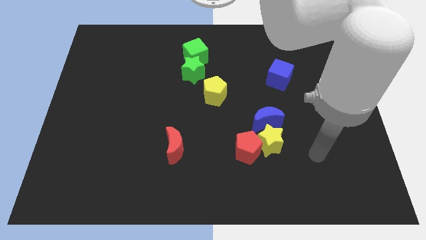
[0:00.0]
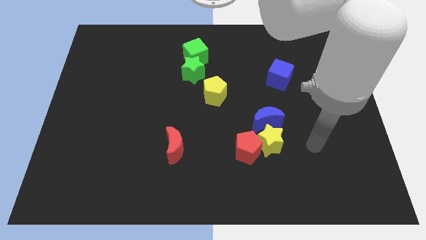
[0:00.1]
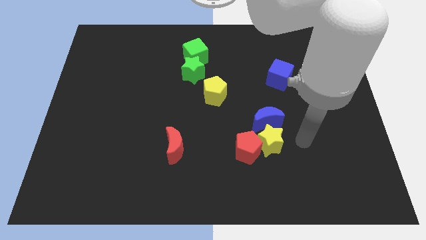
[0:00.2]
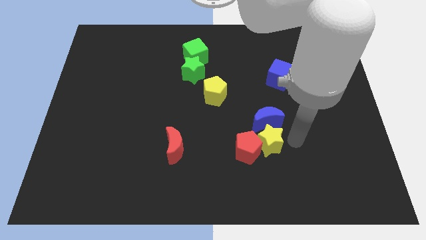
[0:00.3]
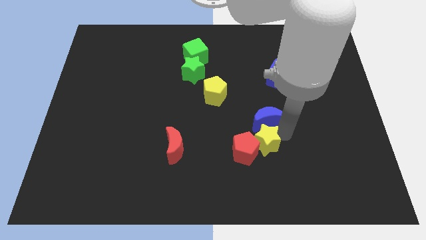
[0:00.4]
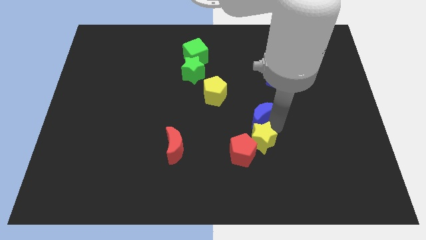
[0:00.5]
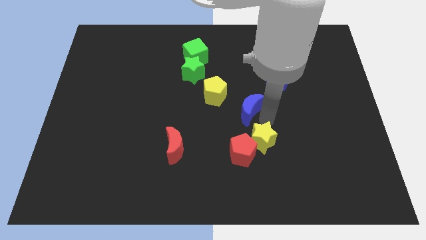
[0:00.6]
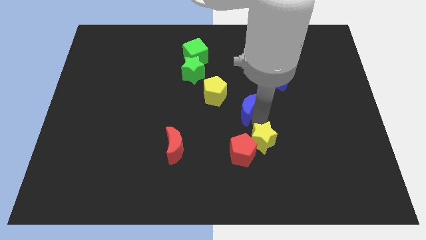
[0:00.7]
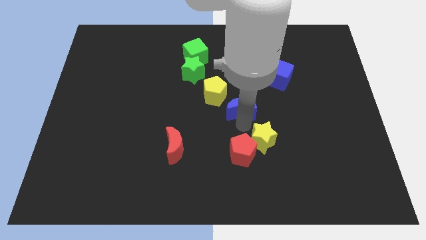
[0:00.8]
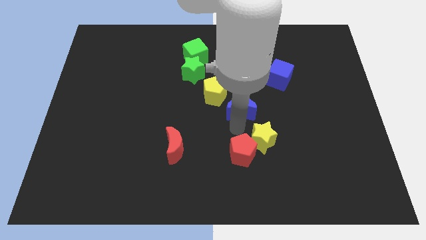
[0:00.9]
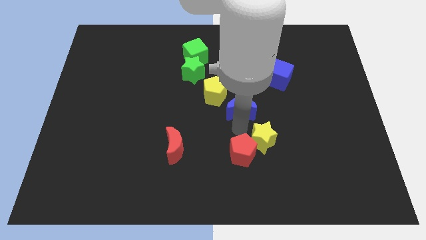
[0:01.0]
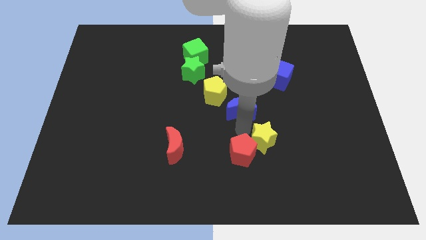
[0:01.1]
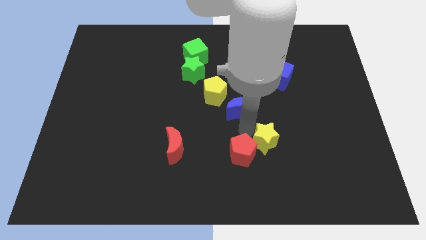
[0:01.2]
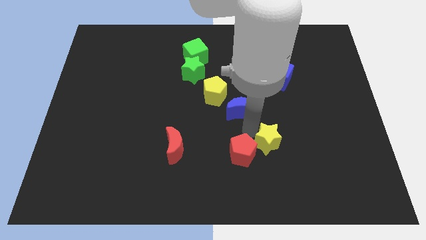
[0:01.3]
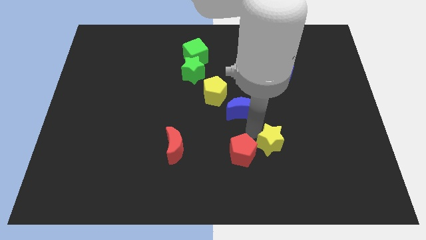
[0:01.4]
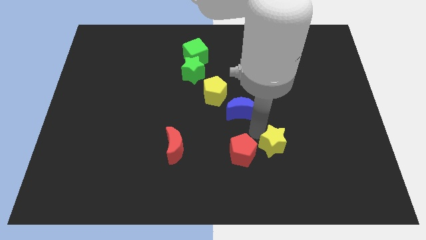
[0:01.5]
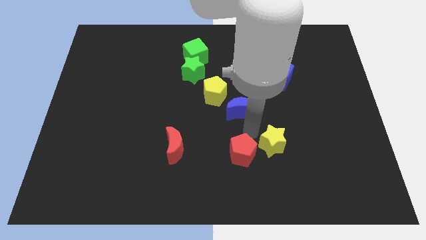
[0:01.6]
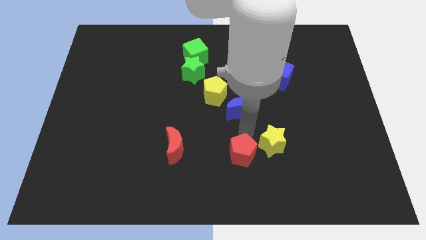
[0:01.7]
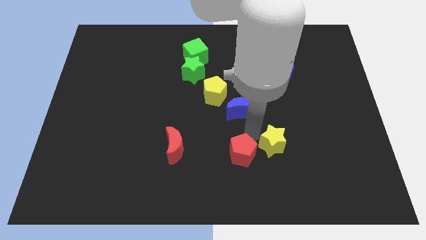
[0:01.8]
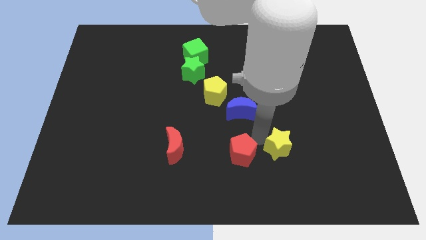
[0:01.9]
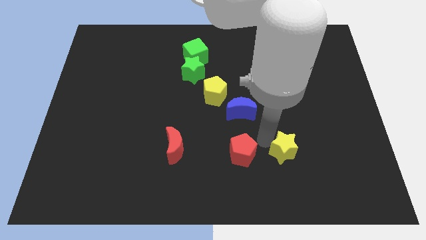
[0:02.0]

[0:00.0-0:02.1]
move the yellow star away from the red pentagon and blue moon

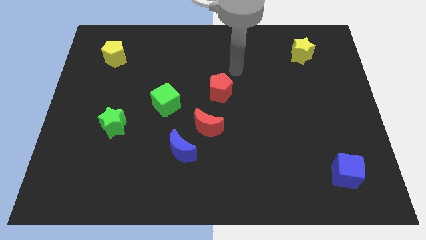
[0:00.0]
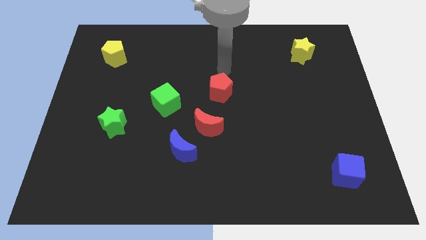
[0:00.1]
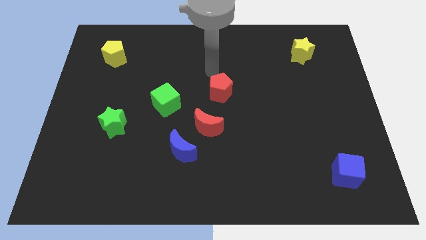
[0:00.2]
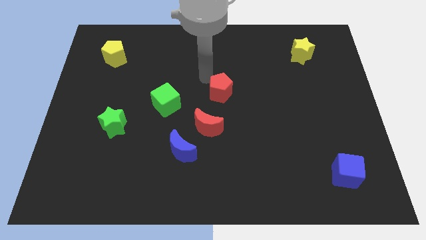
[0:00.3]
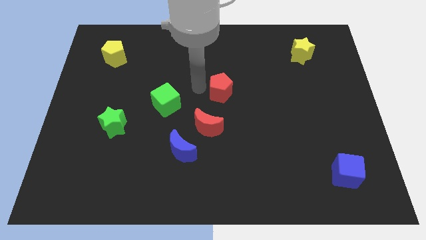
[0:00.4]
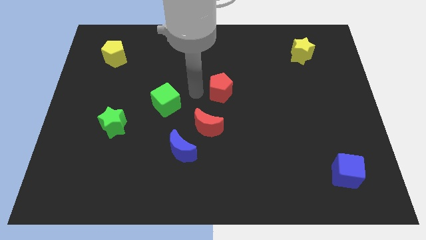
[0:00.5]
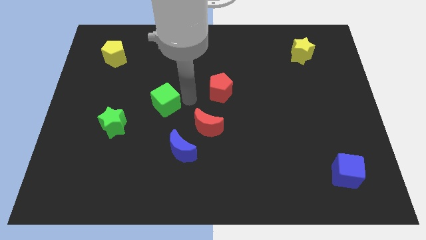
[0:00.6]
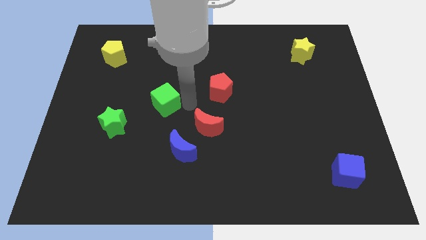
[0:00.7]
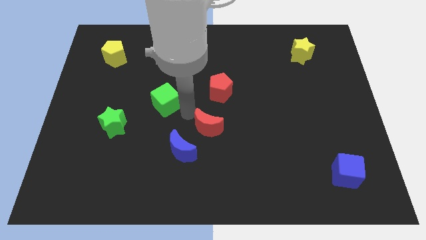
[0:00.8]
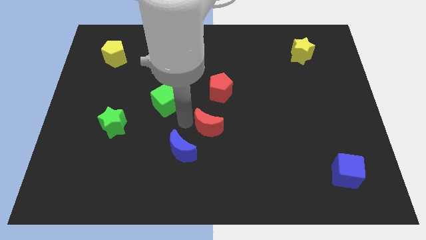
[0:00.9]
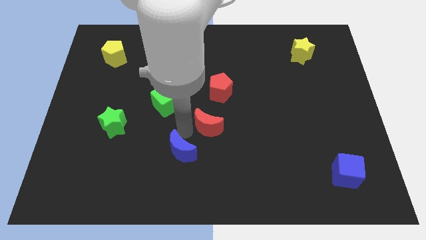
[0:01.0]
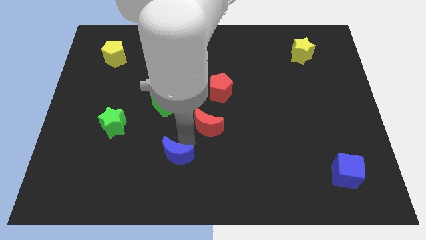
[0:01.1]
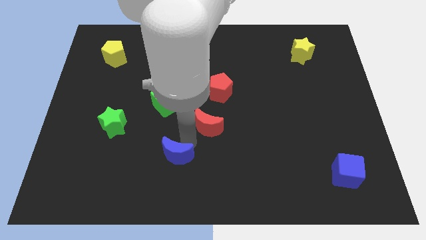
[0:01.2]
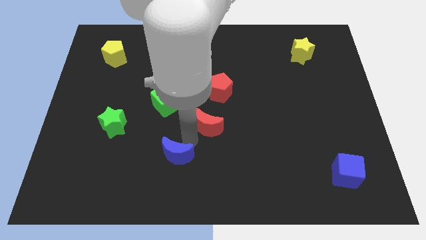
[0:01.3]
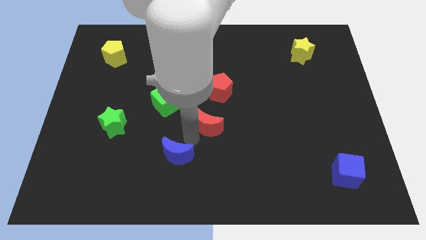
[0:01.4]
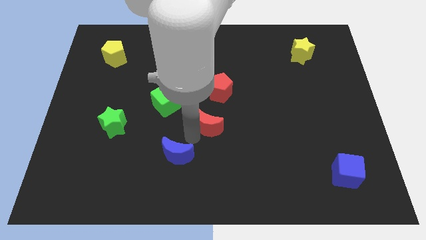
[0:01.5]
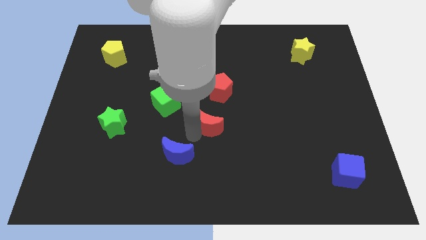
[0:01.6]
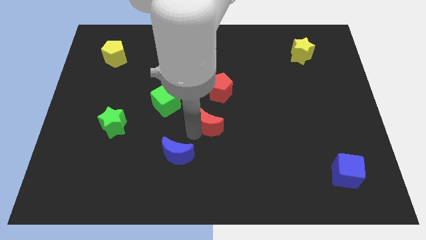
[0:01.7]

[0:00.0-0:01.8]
pull the red moon apart from the blue moon

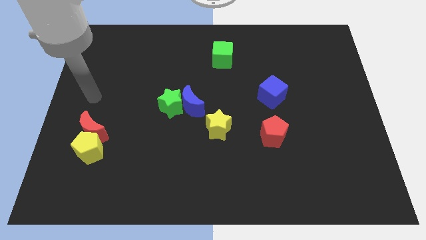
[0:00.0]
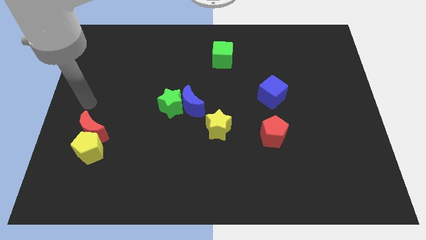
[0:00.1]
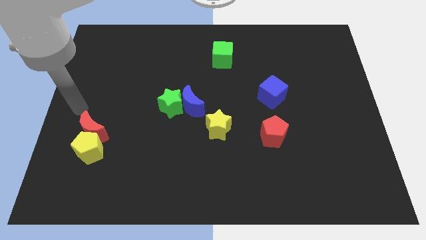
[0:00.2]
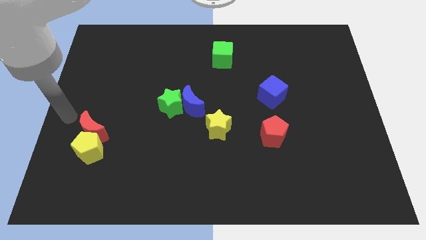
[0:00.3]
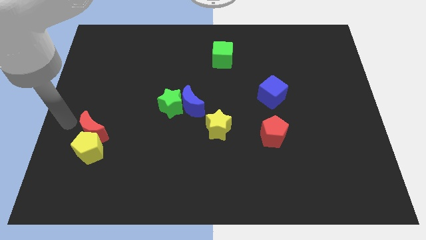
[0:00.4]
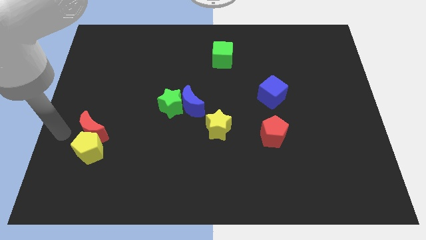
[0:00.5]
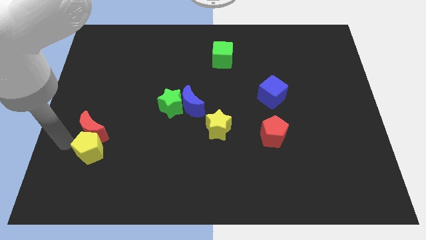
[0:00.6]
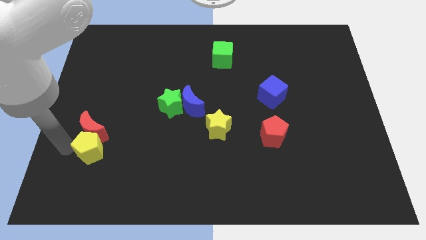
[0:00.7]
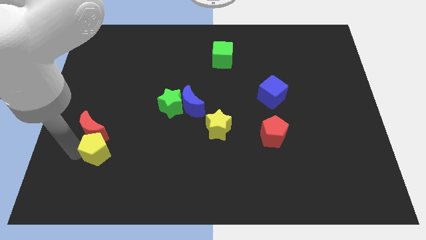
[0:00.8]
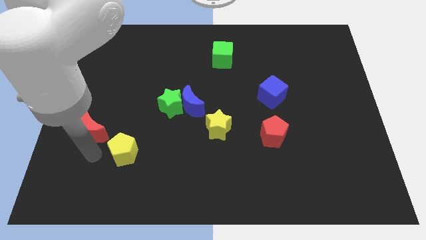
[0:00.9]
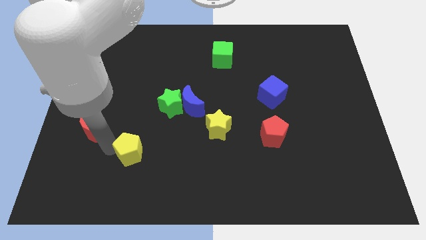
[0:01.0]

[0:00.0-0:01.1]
pull the red moon apart from the yellow pentagon

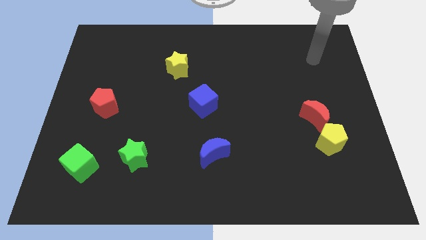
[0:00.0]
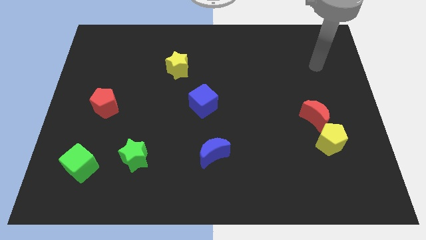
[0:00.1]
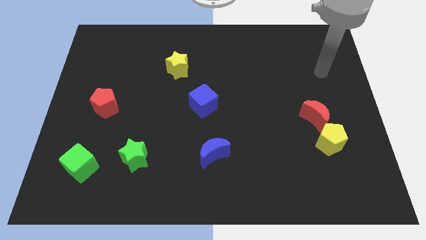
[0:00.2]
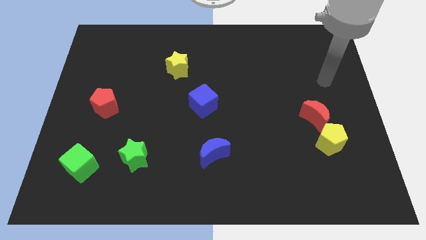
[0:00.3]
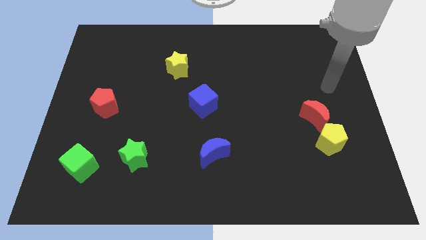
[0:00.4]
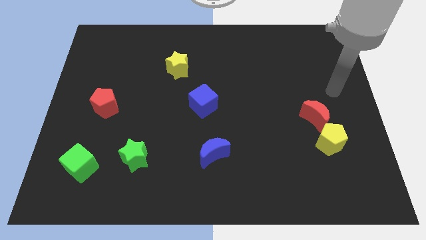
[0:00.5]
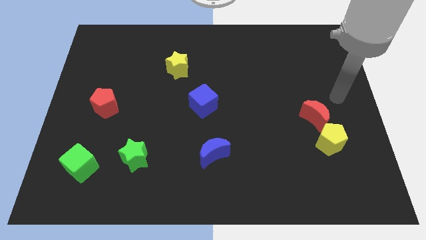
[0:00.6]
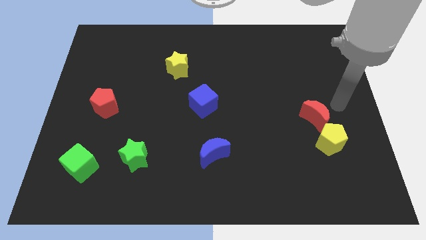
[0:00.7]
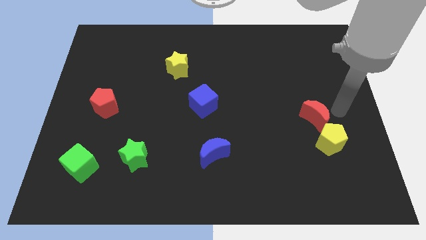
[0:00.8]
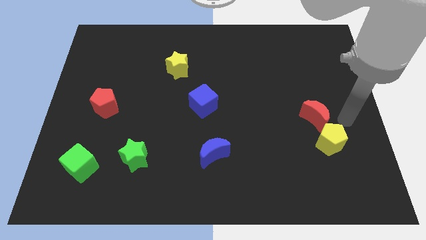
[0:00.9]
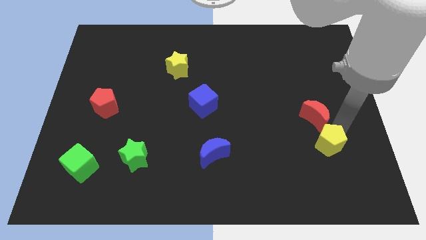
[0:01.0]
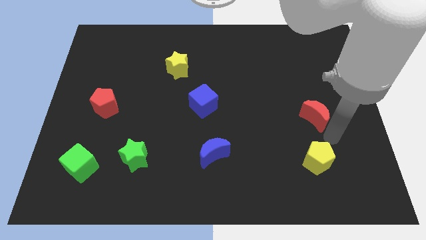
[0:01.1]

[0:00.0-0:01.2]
move the red moon away from the yellow pentagon

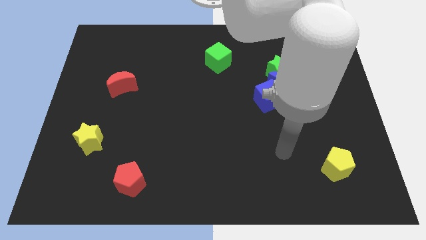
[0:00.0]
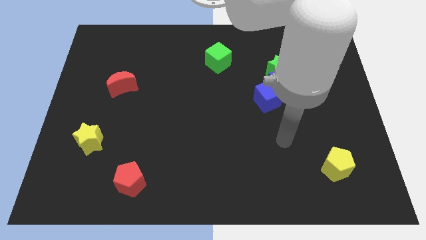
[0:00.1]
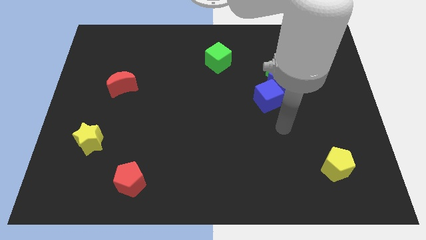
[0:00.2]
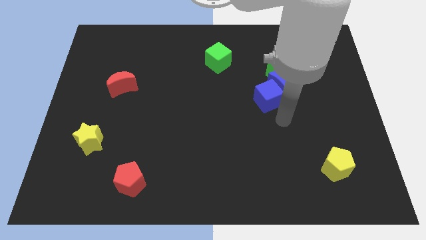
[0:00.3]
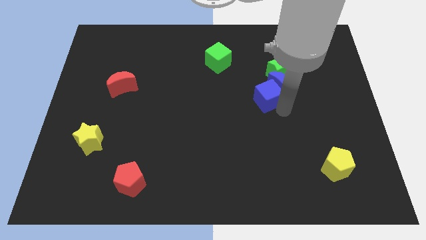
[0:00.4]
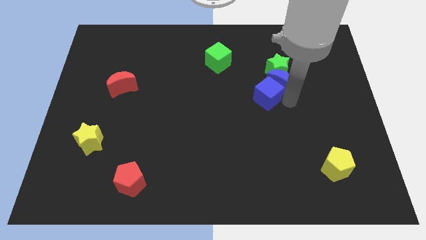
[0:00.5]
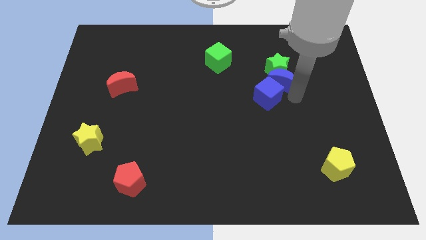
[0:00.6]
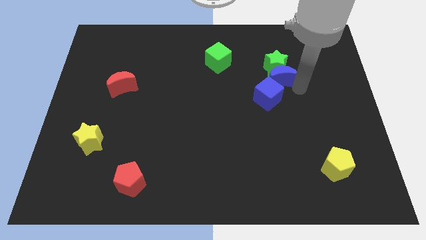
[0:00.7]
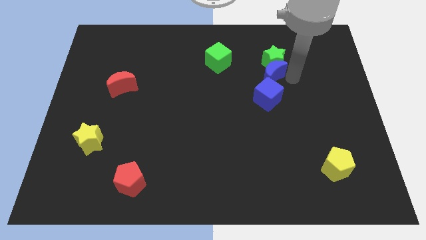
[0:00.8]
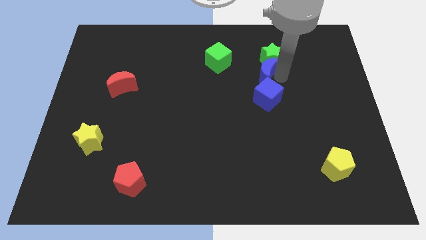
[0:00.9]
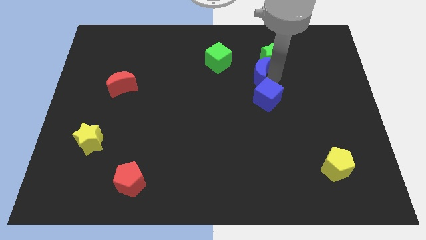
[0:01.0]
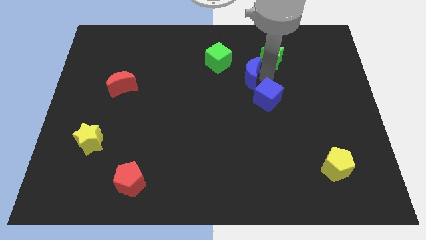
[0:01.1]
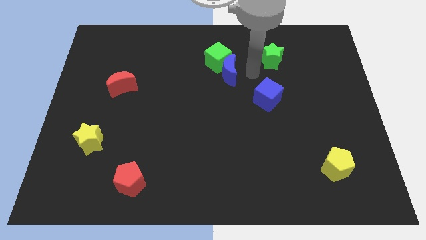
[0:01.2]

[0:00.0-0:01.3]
pull the blue moon apart from the blue cube and green star

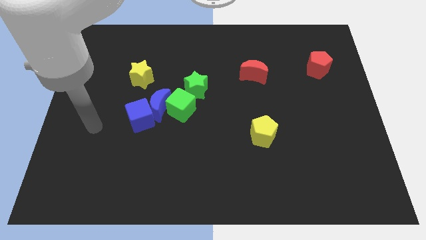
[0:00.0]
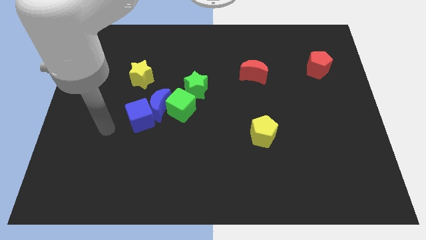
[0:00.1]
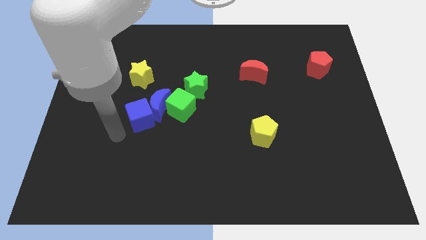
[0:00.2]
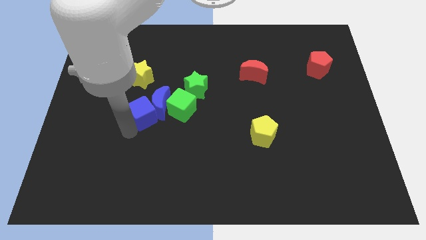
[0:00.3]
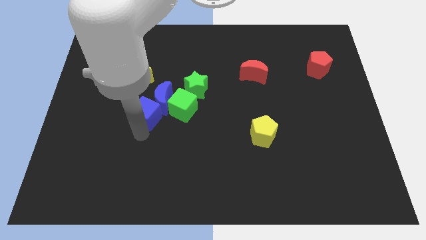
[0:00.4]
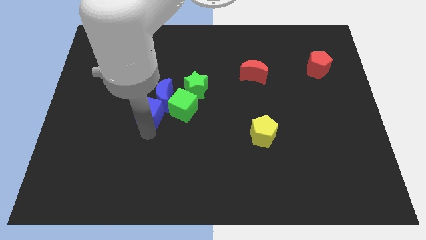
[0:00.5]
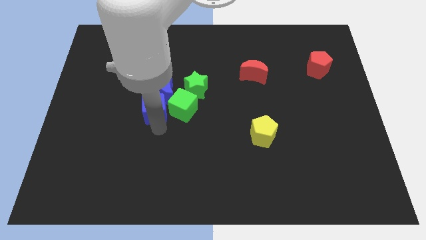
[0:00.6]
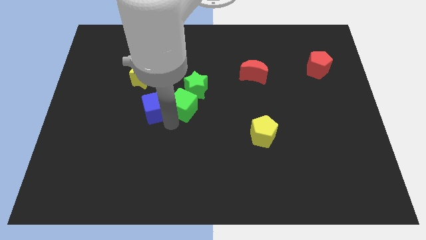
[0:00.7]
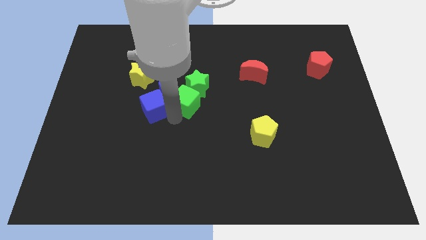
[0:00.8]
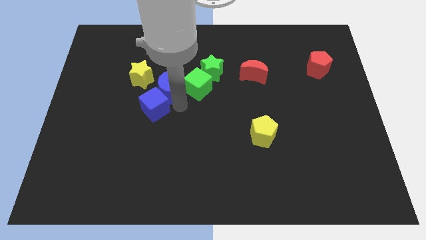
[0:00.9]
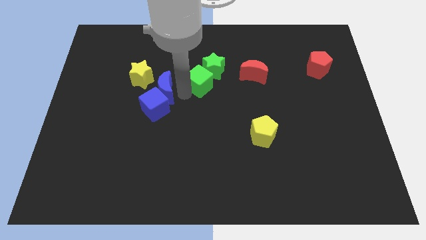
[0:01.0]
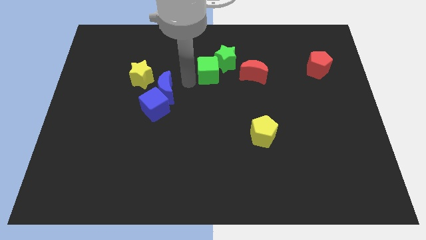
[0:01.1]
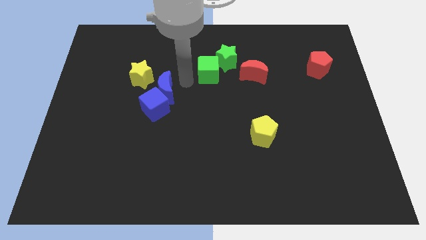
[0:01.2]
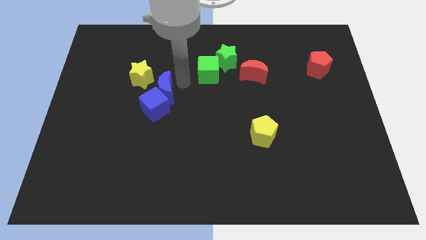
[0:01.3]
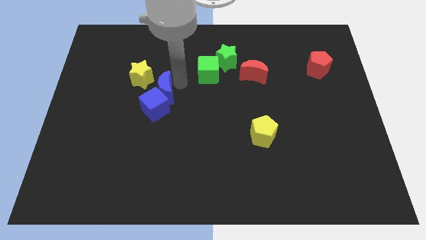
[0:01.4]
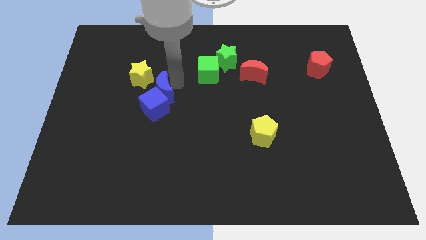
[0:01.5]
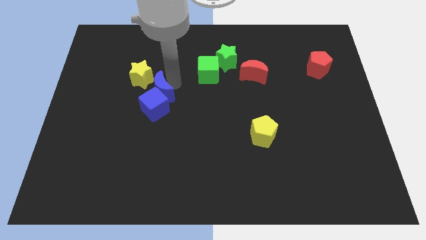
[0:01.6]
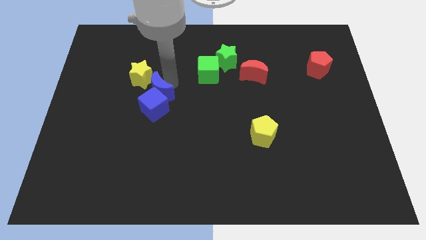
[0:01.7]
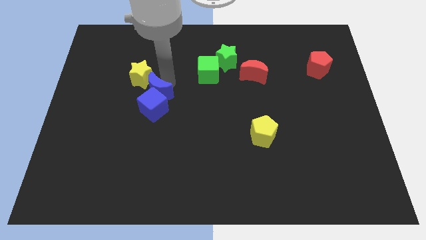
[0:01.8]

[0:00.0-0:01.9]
move the blue moon away from the group of blocks

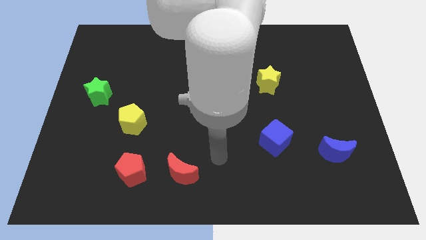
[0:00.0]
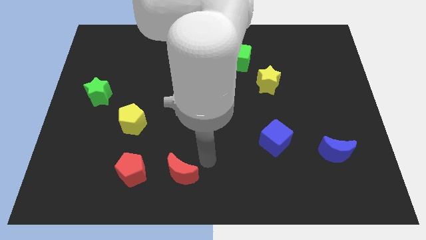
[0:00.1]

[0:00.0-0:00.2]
move the red moon away from the red pentagon
